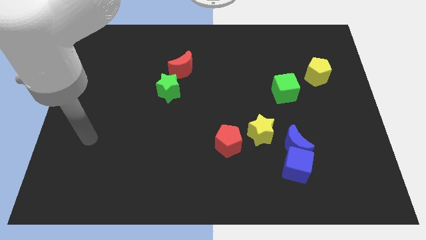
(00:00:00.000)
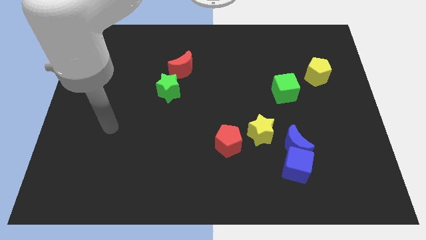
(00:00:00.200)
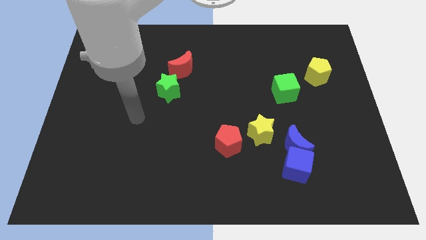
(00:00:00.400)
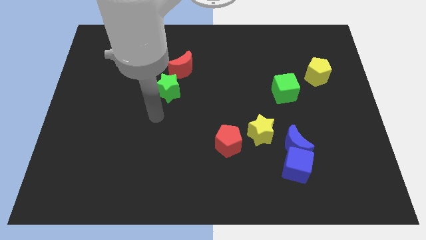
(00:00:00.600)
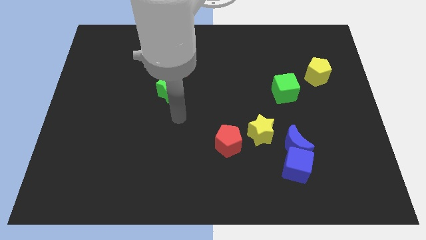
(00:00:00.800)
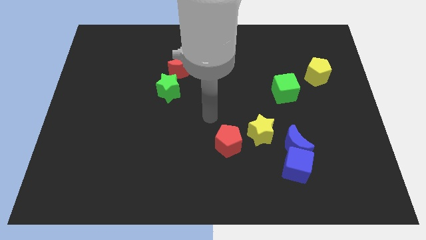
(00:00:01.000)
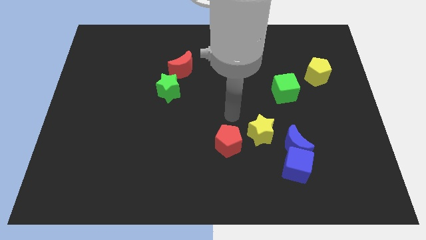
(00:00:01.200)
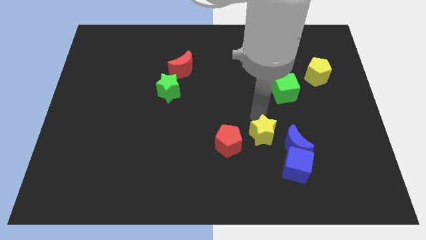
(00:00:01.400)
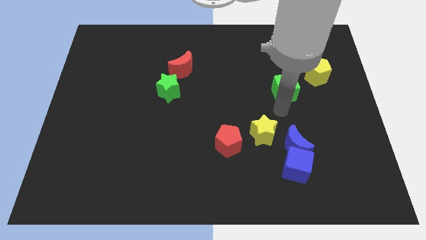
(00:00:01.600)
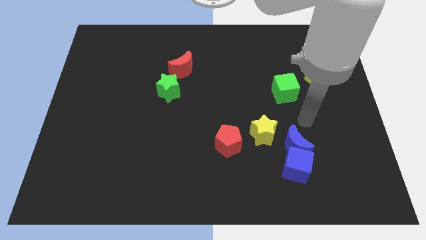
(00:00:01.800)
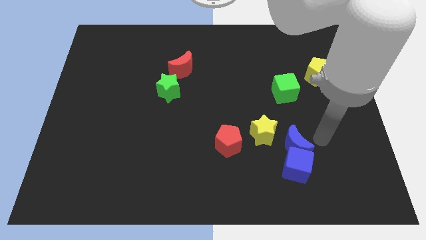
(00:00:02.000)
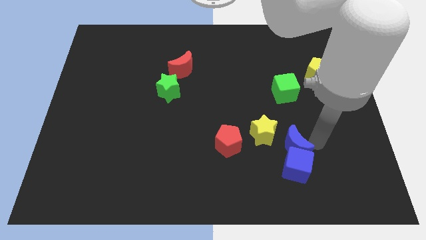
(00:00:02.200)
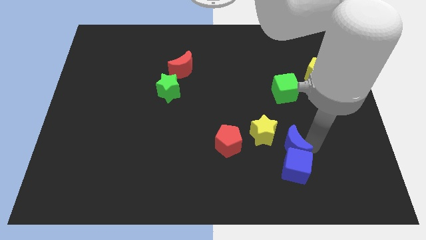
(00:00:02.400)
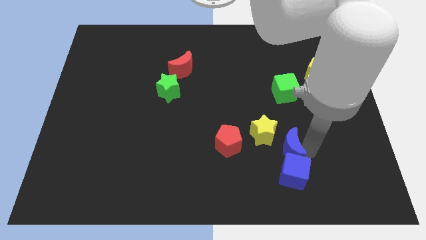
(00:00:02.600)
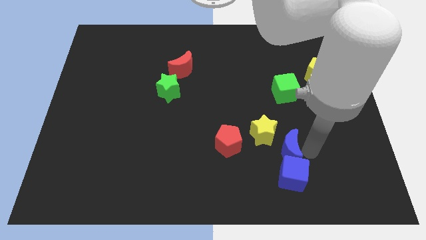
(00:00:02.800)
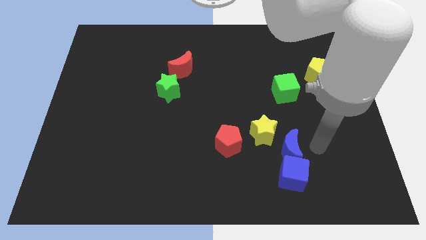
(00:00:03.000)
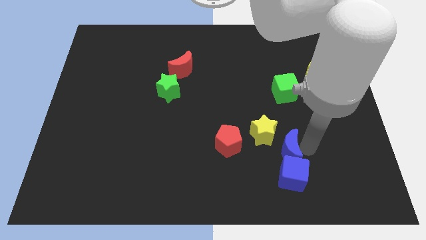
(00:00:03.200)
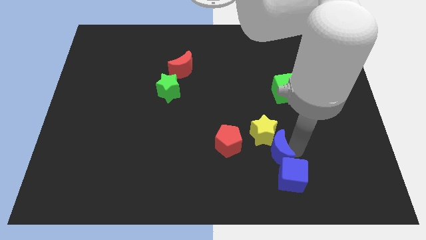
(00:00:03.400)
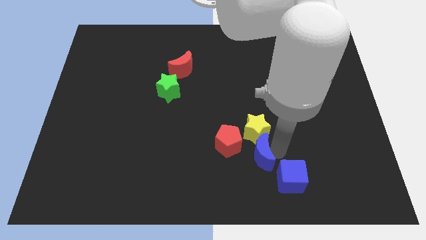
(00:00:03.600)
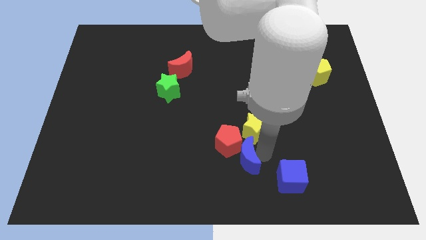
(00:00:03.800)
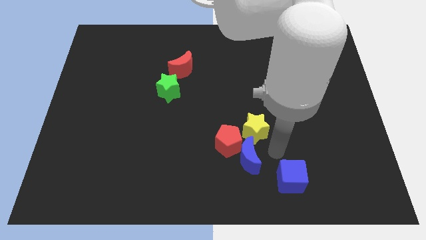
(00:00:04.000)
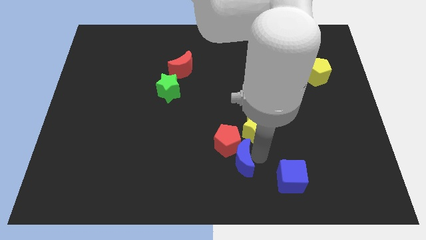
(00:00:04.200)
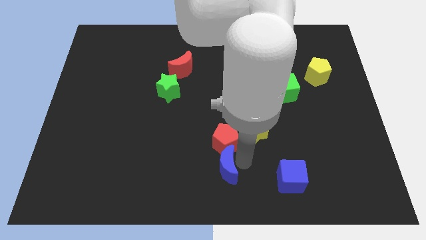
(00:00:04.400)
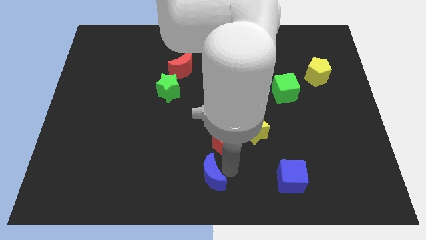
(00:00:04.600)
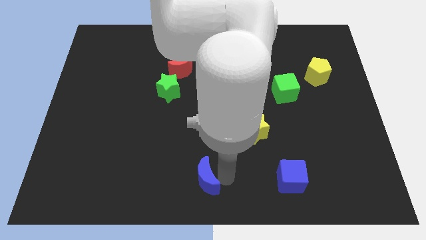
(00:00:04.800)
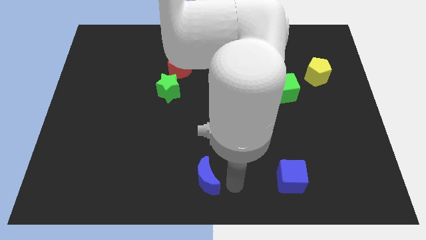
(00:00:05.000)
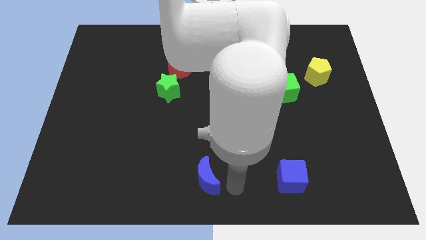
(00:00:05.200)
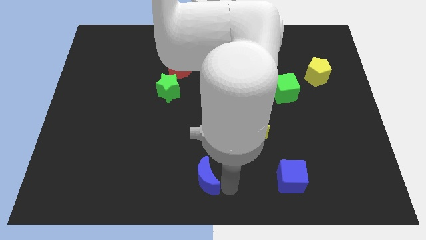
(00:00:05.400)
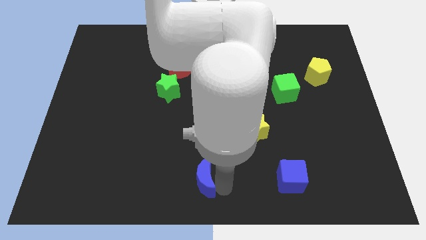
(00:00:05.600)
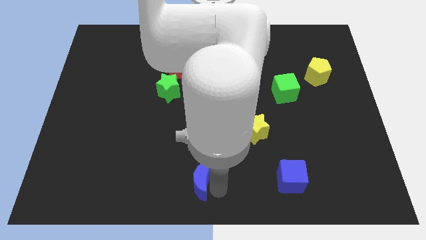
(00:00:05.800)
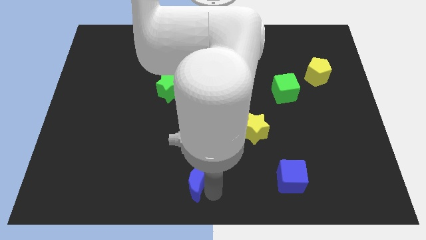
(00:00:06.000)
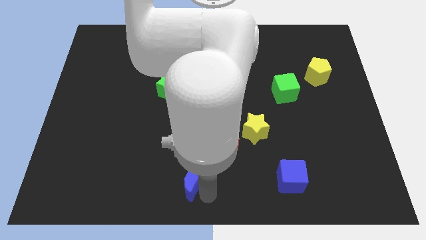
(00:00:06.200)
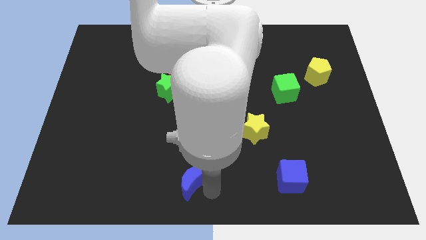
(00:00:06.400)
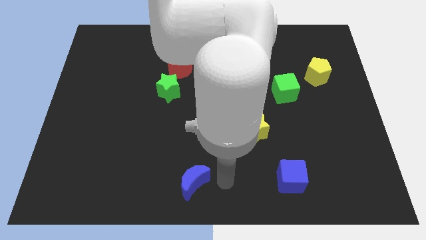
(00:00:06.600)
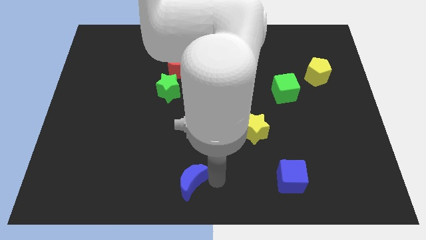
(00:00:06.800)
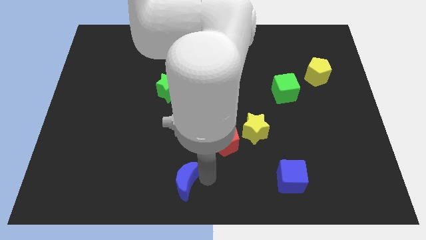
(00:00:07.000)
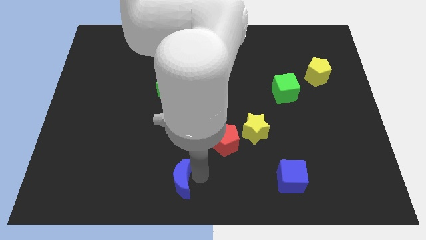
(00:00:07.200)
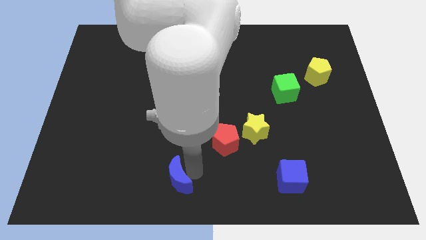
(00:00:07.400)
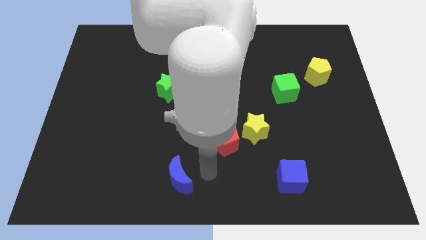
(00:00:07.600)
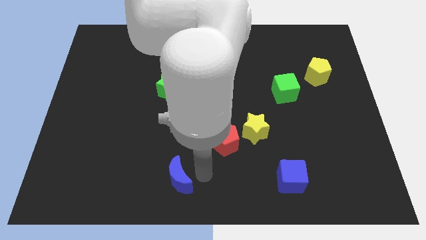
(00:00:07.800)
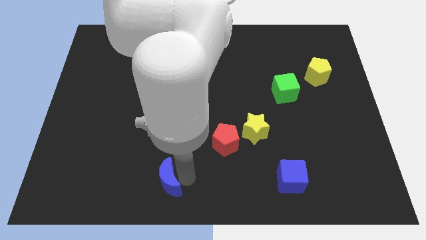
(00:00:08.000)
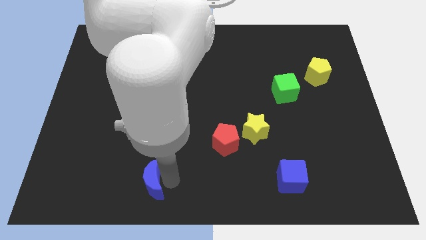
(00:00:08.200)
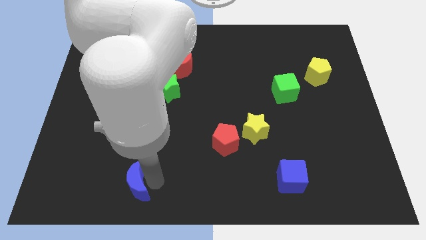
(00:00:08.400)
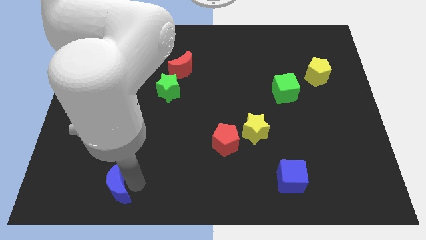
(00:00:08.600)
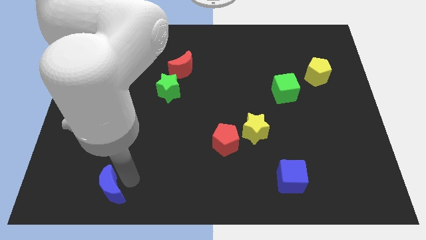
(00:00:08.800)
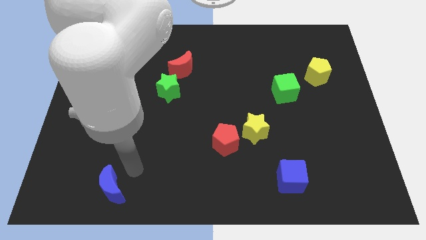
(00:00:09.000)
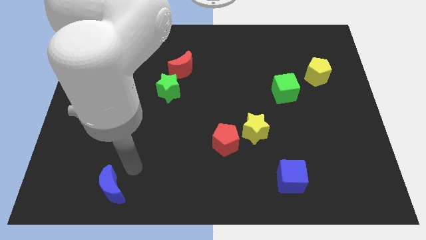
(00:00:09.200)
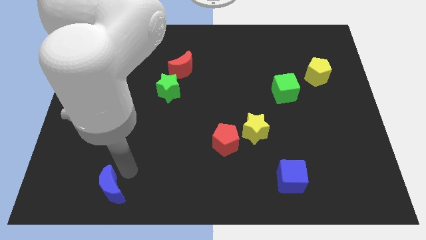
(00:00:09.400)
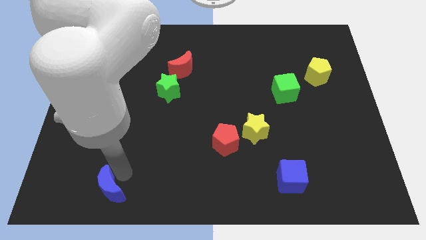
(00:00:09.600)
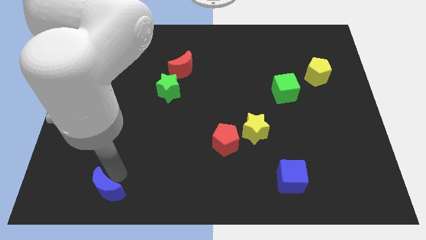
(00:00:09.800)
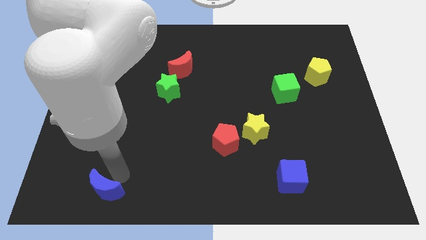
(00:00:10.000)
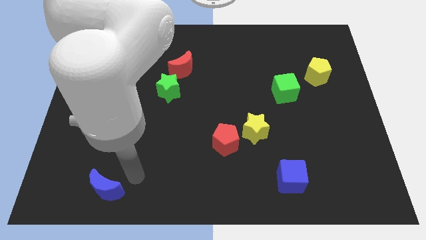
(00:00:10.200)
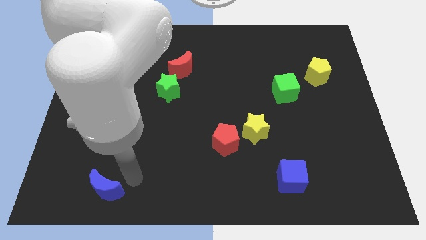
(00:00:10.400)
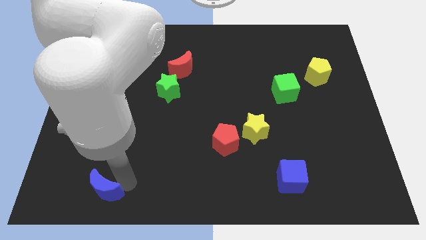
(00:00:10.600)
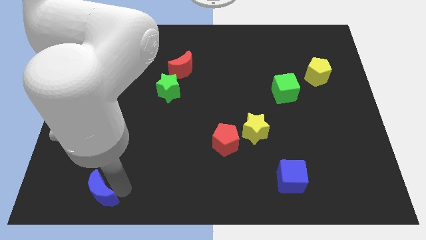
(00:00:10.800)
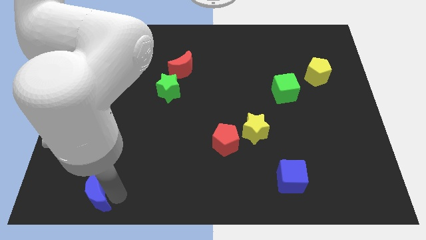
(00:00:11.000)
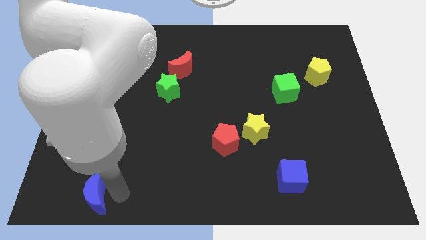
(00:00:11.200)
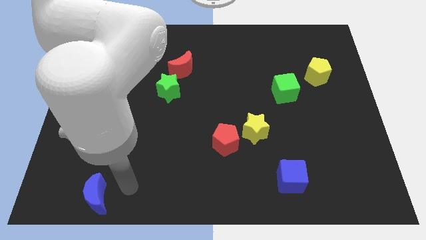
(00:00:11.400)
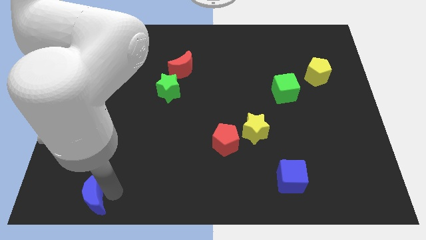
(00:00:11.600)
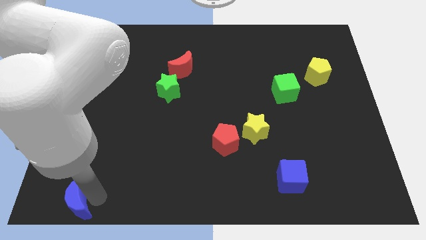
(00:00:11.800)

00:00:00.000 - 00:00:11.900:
move the blue moon to the lower left corner

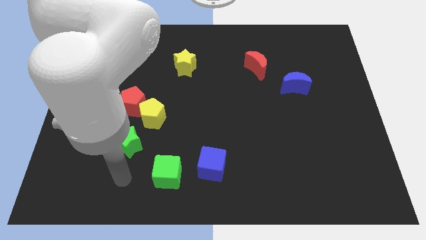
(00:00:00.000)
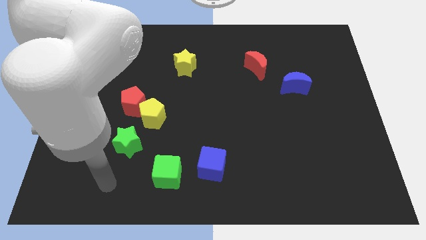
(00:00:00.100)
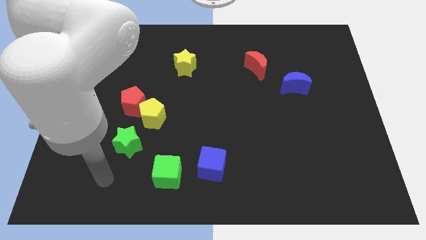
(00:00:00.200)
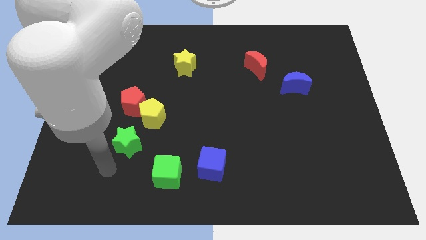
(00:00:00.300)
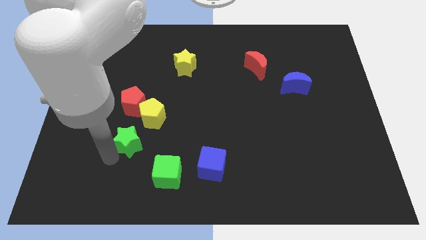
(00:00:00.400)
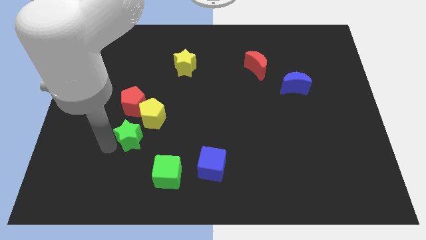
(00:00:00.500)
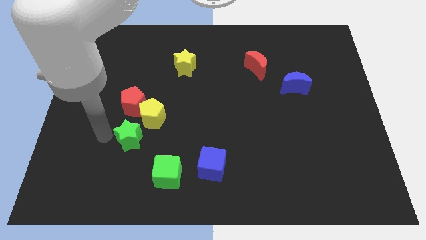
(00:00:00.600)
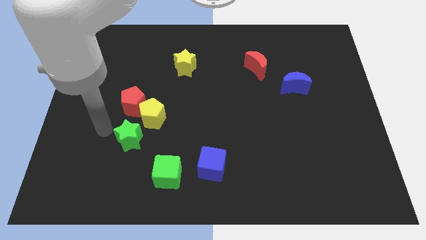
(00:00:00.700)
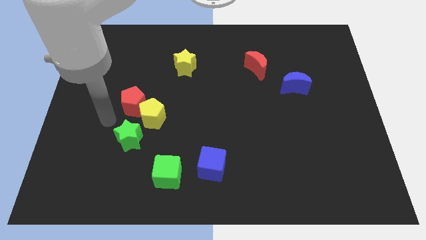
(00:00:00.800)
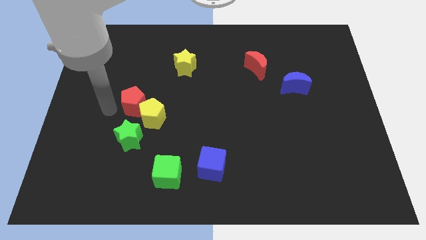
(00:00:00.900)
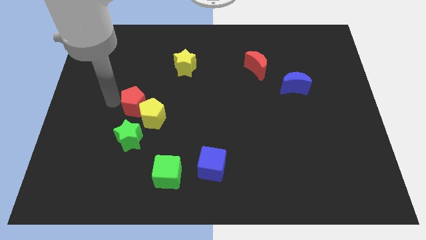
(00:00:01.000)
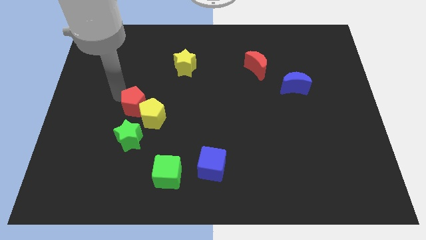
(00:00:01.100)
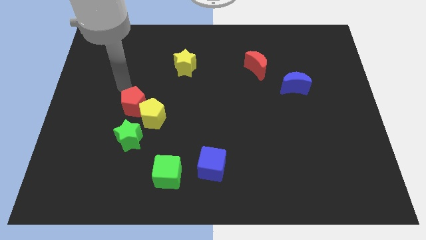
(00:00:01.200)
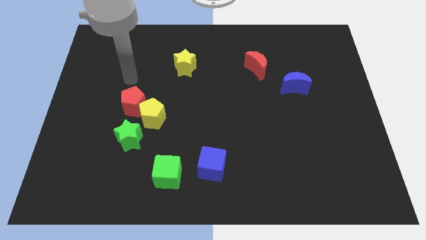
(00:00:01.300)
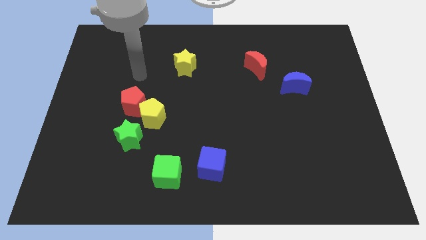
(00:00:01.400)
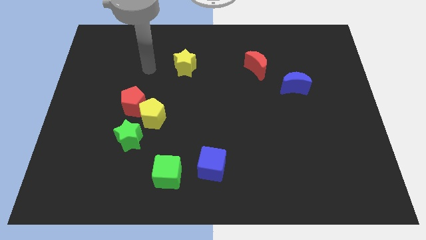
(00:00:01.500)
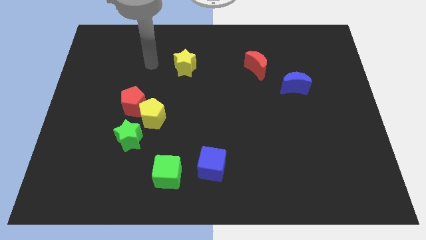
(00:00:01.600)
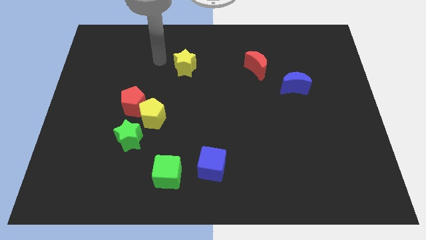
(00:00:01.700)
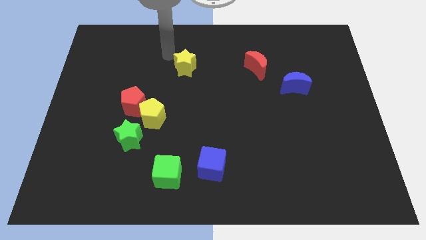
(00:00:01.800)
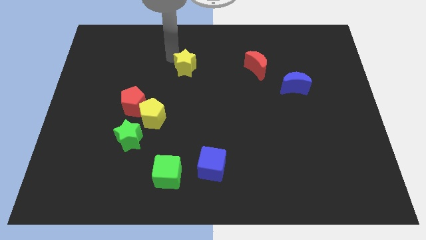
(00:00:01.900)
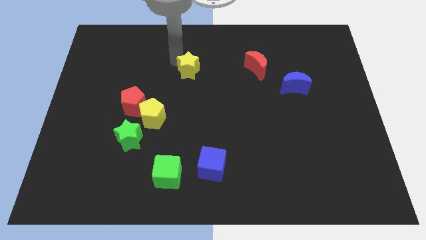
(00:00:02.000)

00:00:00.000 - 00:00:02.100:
move the yellow star to the middle
